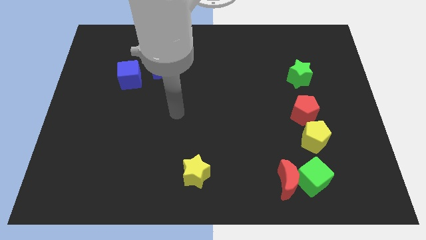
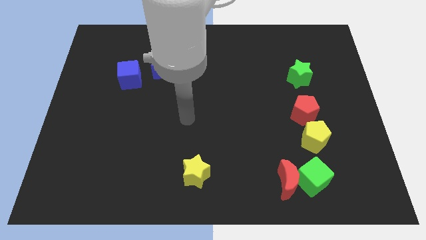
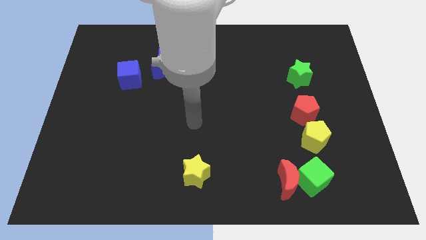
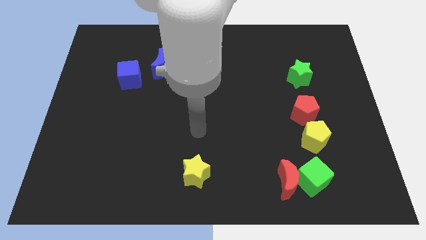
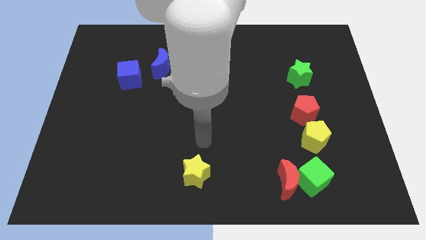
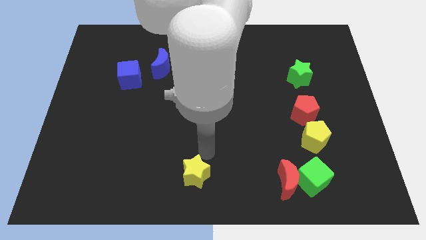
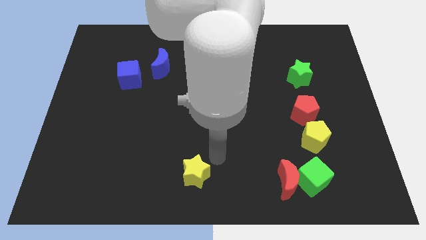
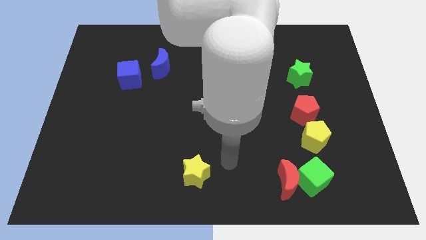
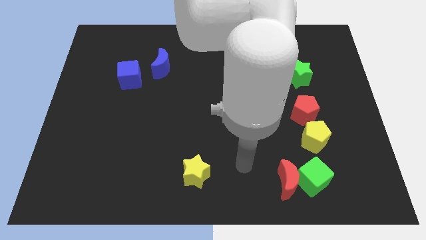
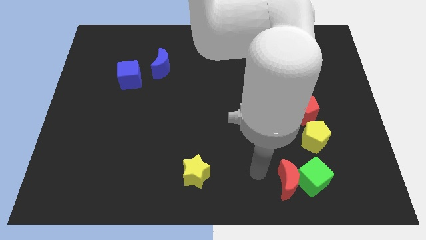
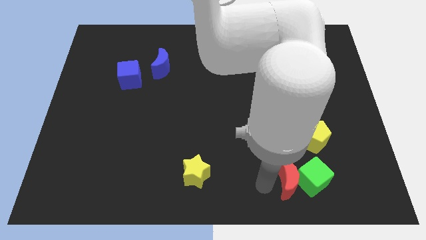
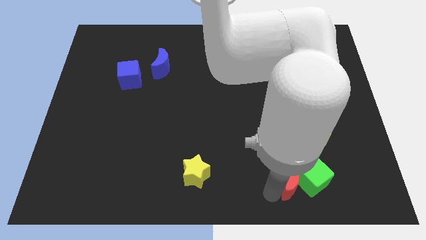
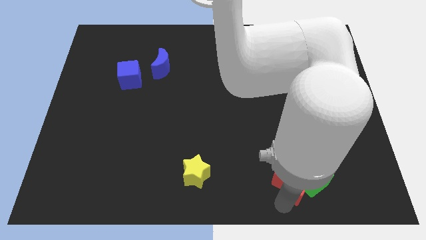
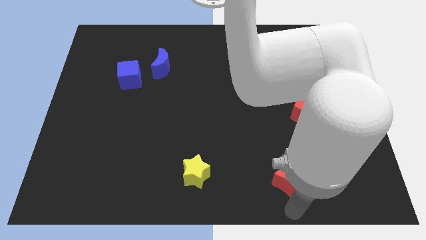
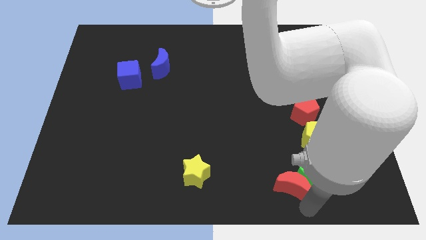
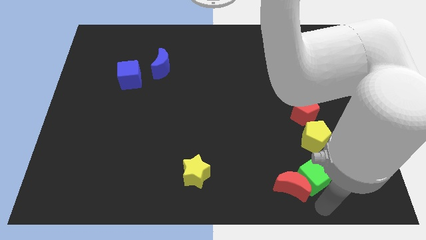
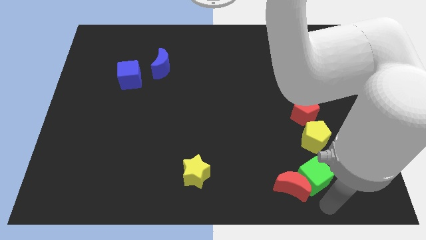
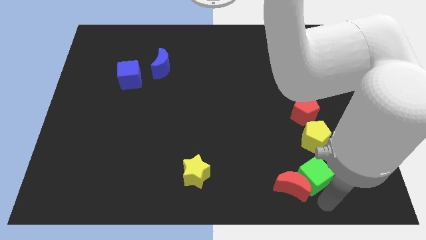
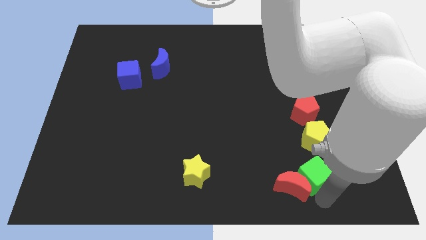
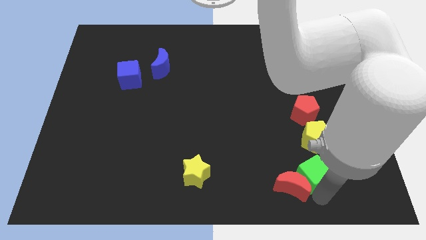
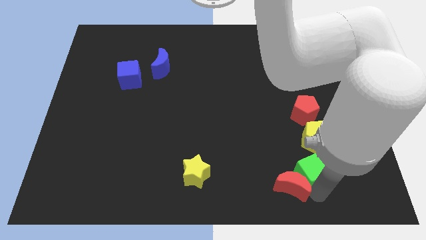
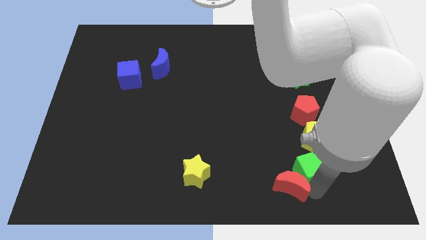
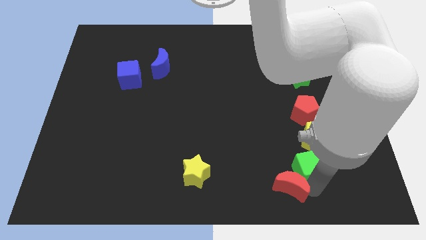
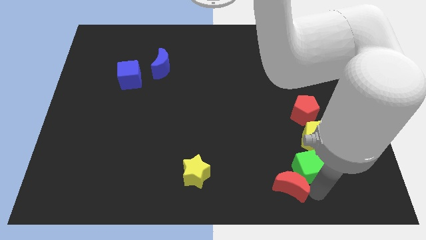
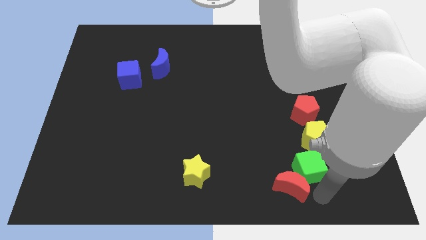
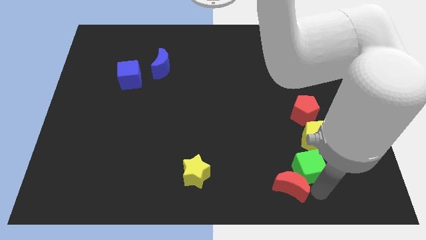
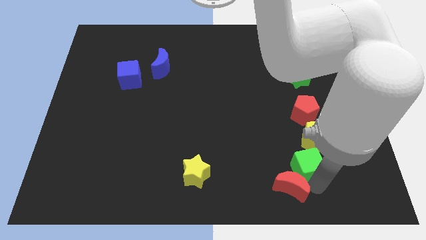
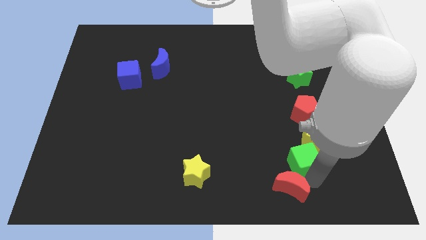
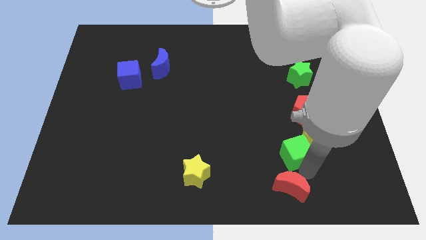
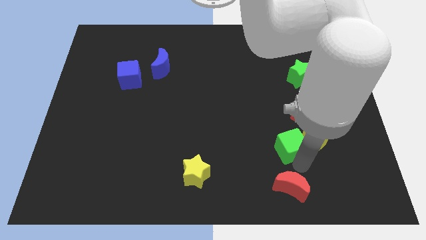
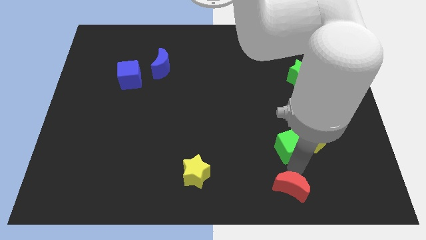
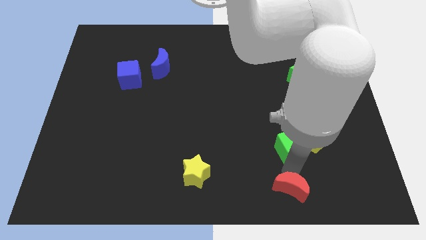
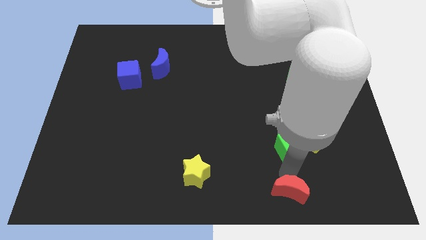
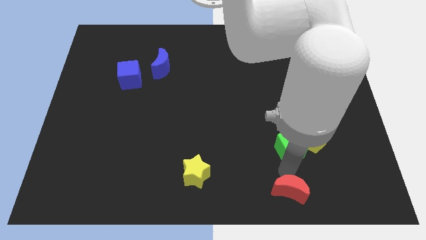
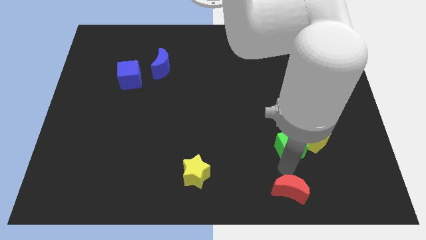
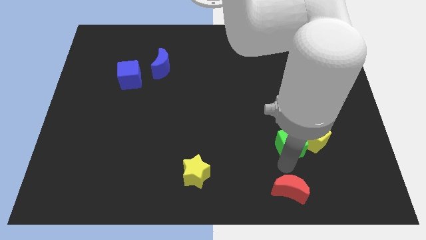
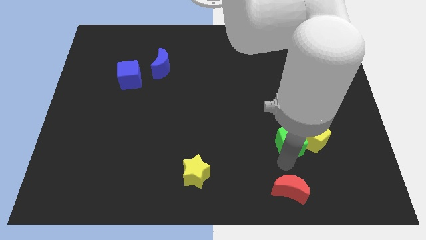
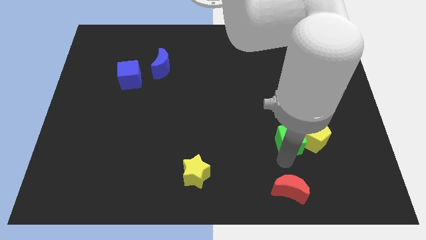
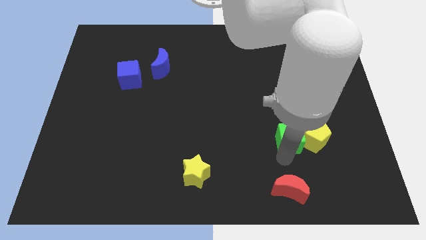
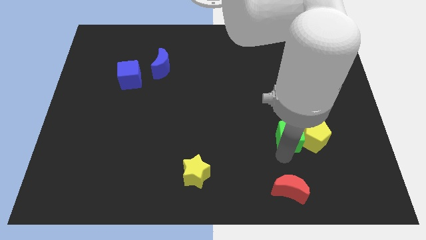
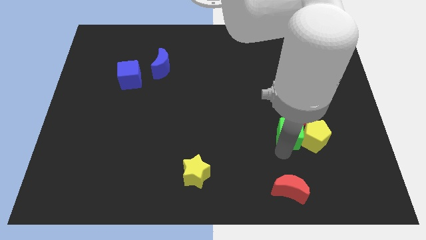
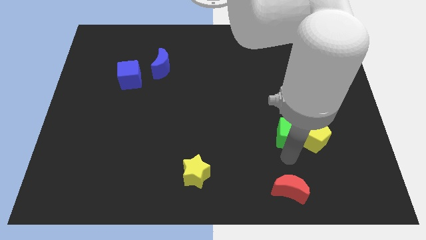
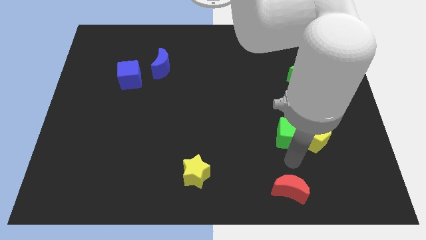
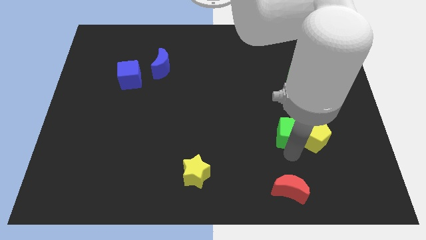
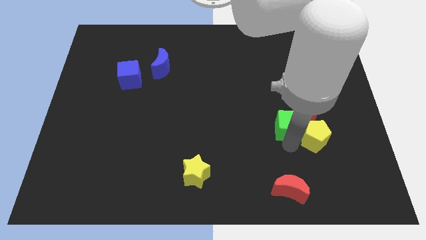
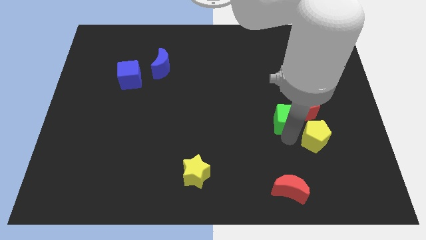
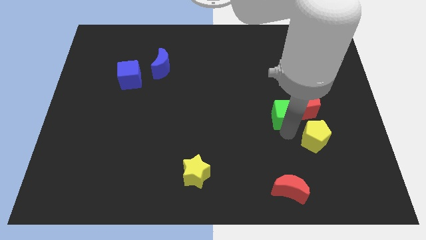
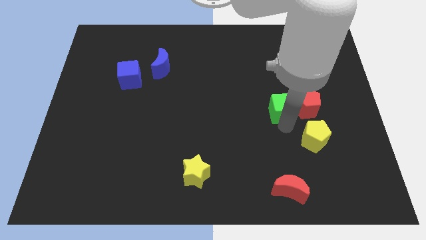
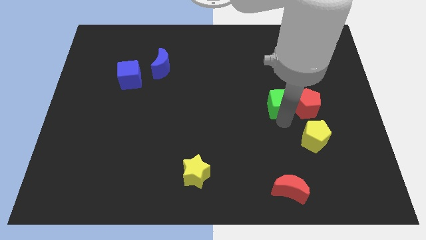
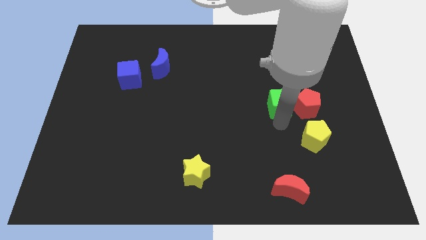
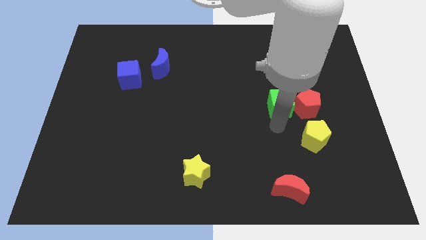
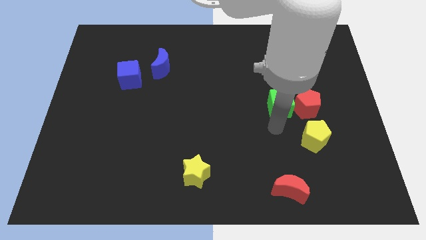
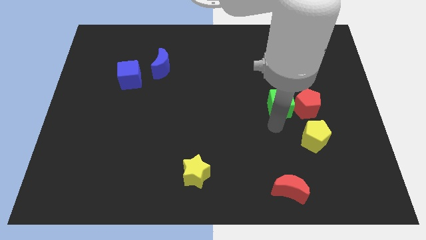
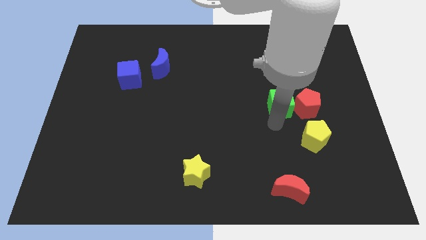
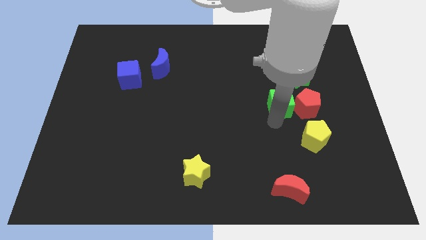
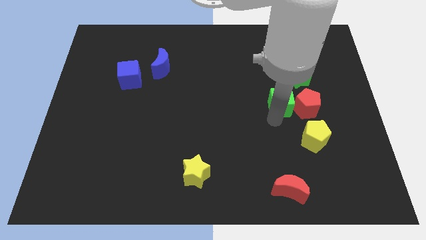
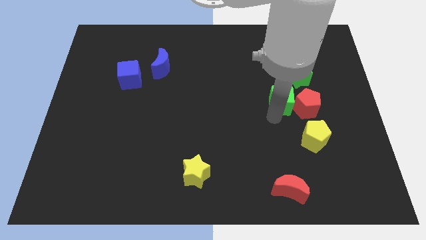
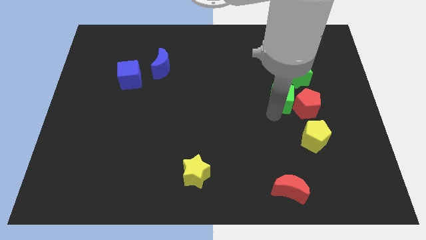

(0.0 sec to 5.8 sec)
push the green cube upwards

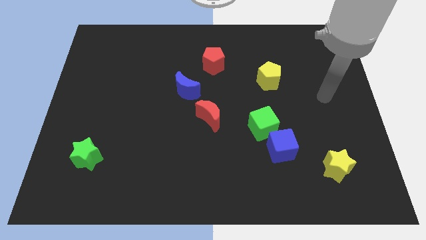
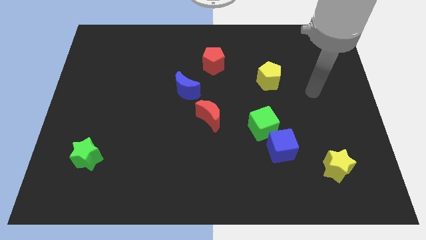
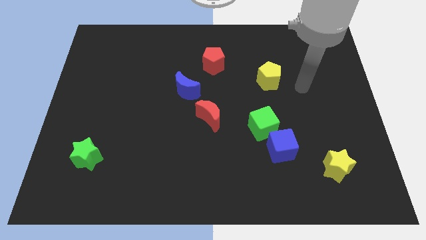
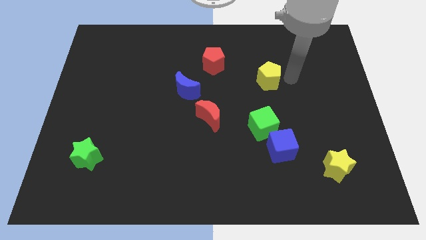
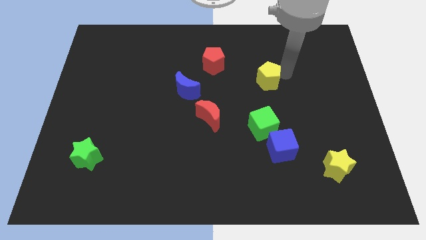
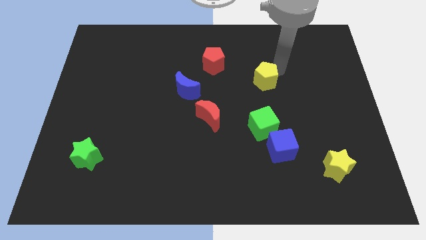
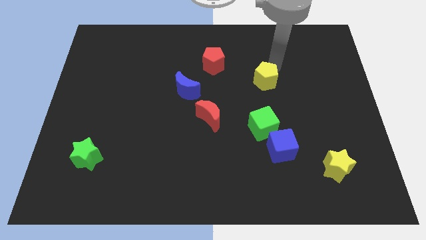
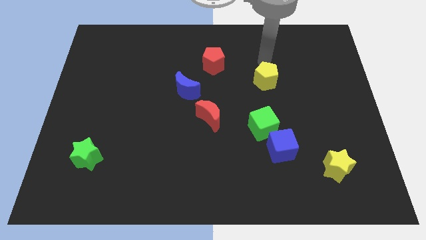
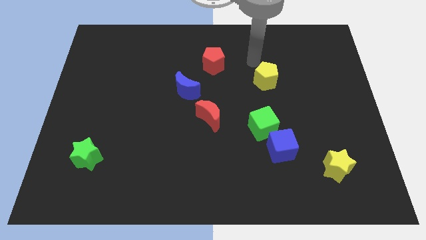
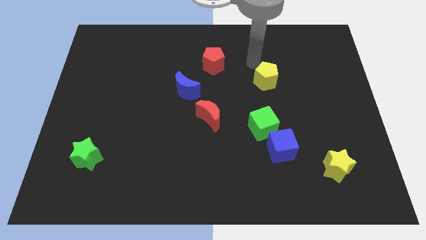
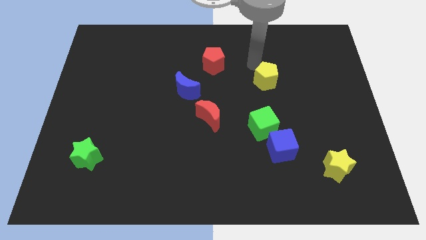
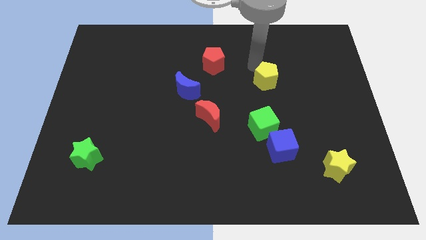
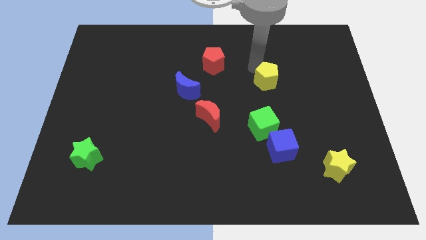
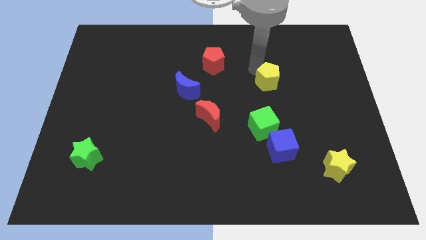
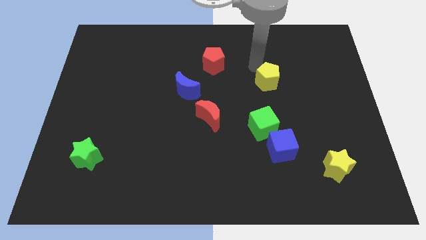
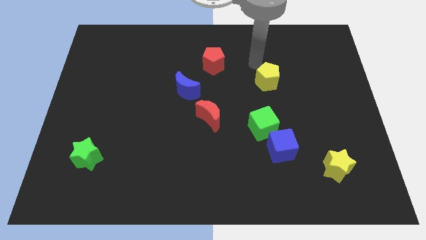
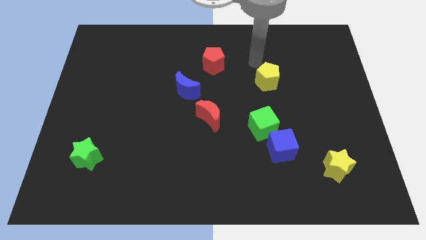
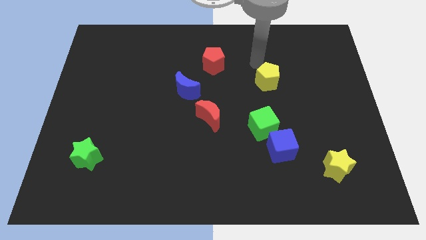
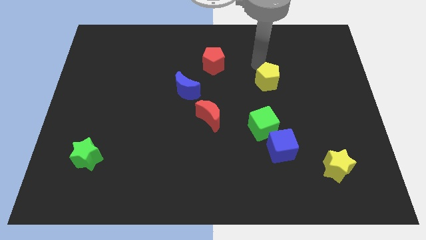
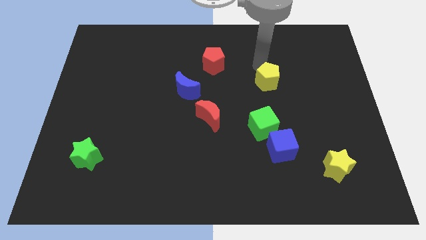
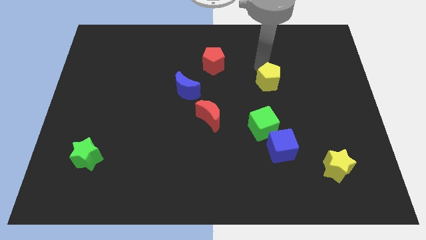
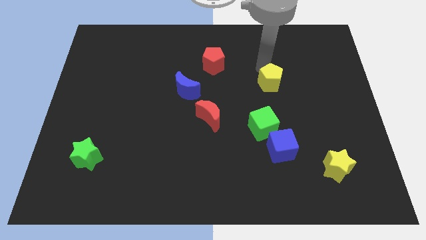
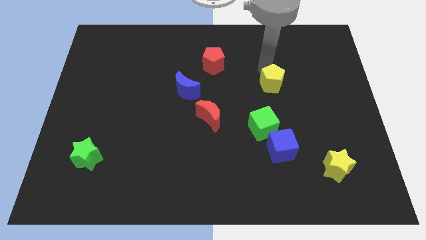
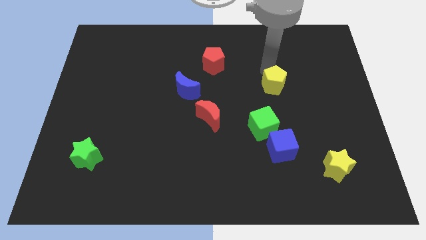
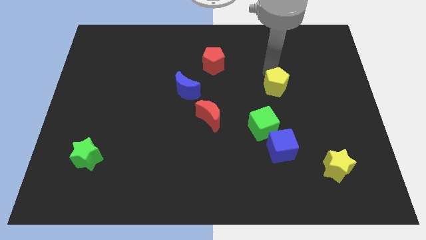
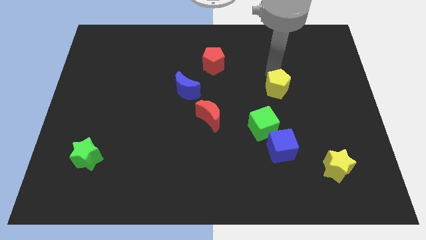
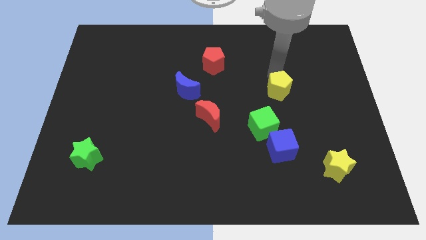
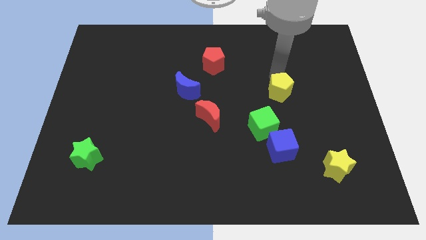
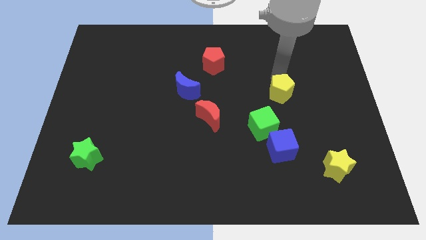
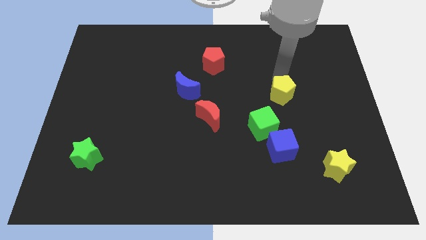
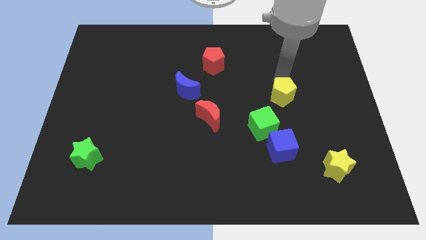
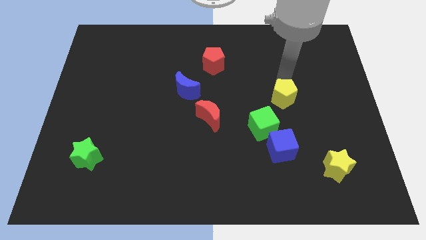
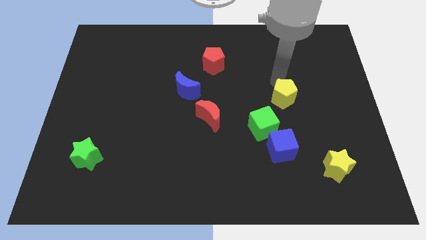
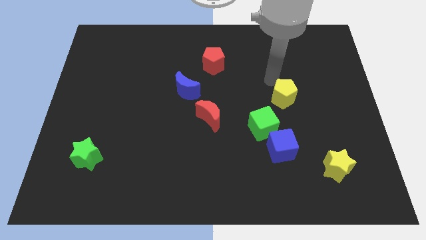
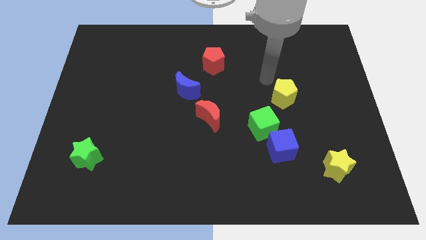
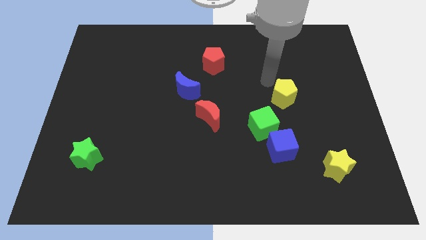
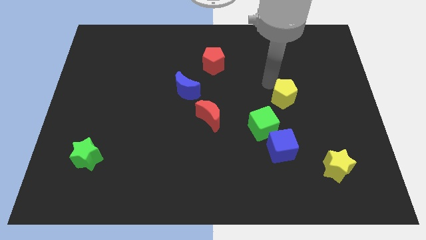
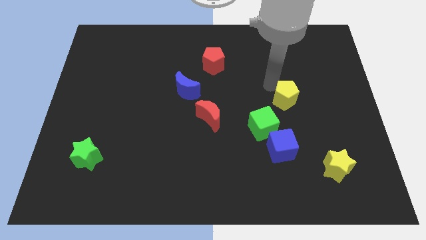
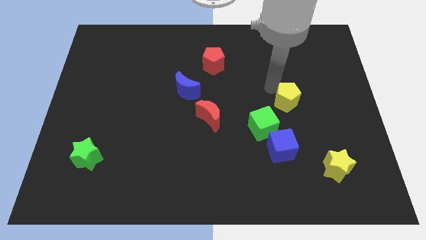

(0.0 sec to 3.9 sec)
push the yellow pentagon slightly downwards and then right
